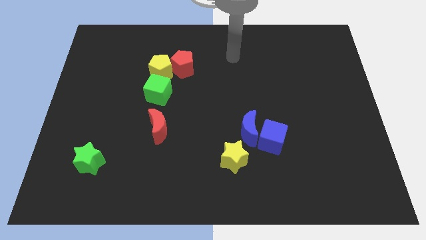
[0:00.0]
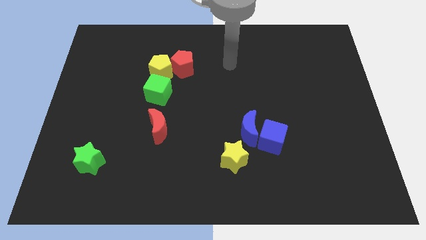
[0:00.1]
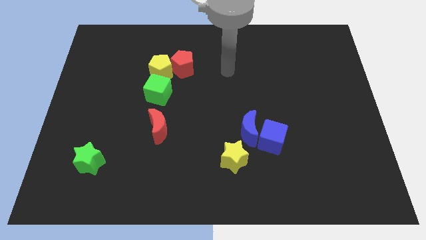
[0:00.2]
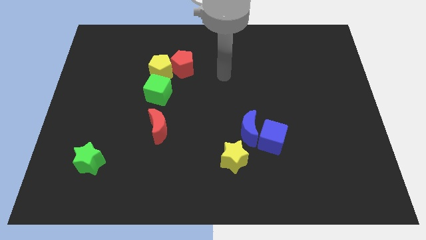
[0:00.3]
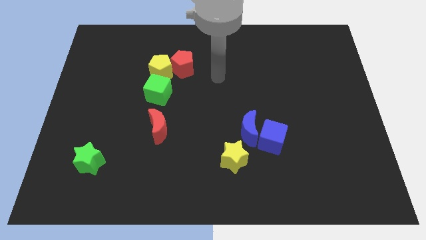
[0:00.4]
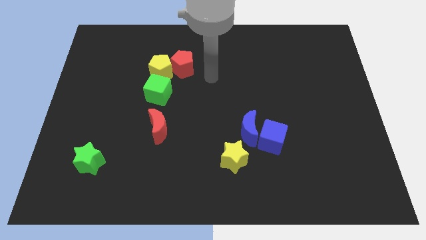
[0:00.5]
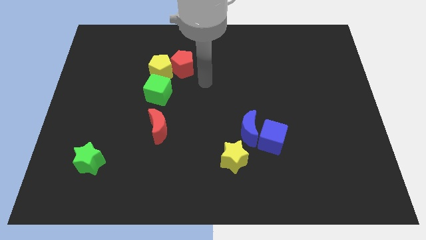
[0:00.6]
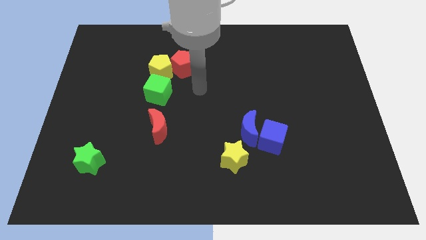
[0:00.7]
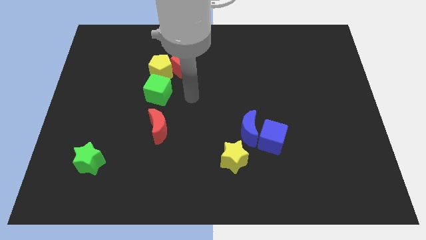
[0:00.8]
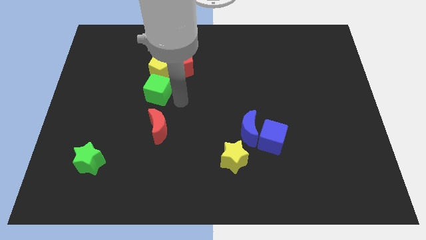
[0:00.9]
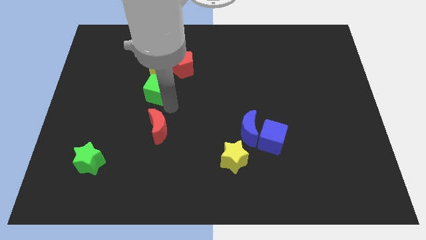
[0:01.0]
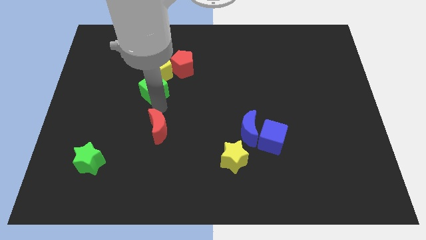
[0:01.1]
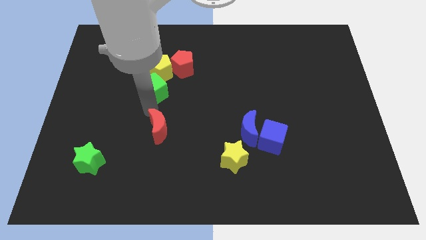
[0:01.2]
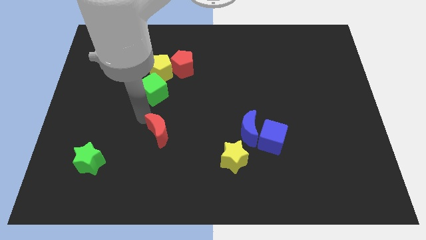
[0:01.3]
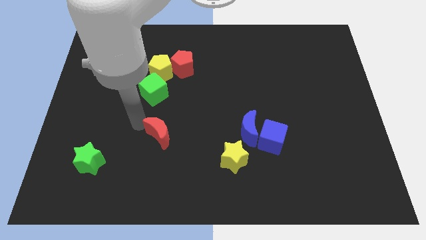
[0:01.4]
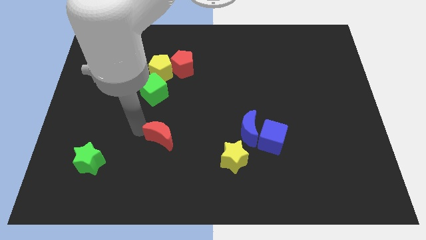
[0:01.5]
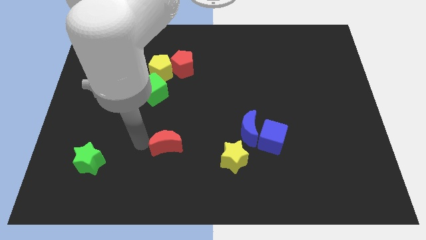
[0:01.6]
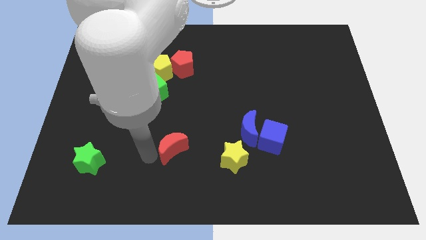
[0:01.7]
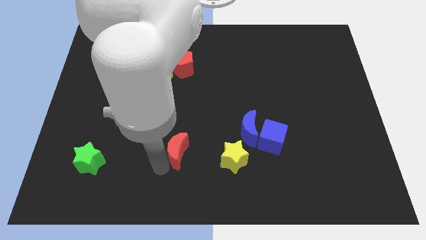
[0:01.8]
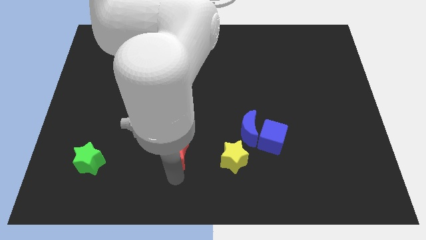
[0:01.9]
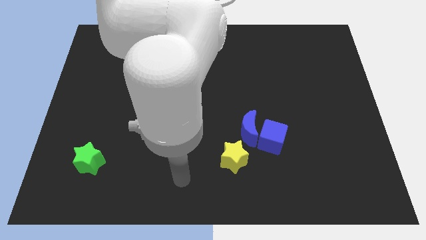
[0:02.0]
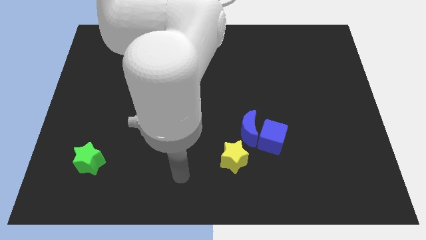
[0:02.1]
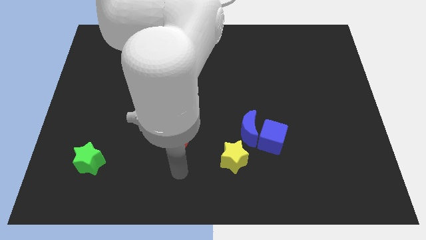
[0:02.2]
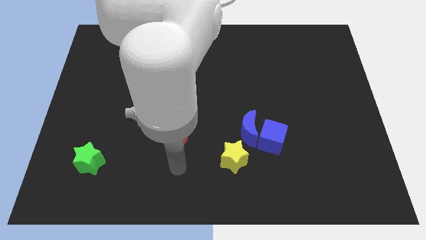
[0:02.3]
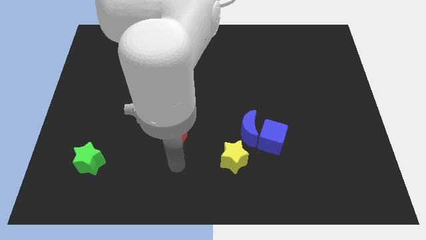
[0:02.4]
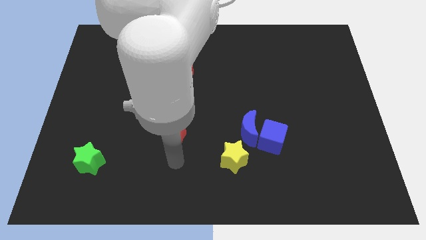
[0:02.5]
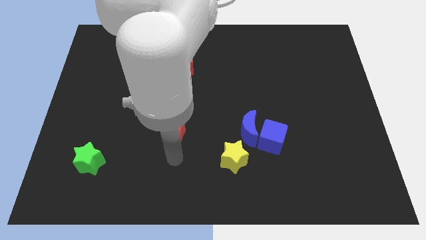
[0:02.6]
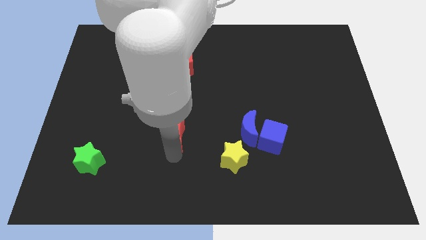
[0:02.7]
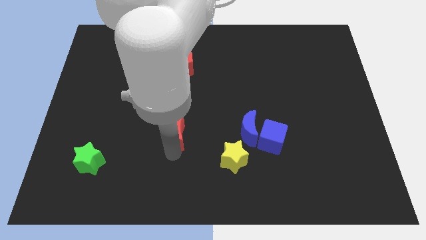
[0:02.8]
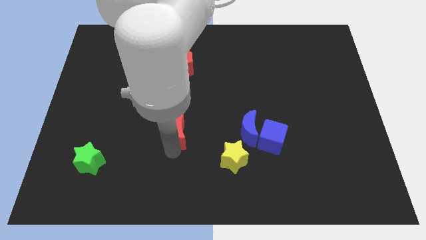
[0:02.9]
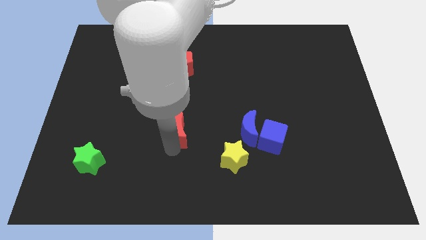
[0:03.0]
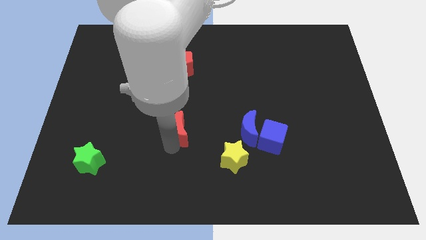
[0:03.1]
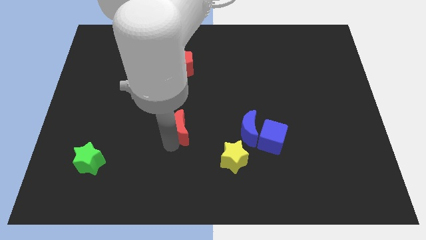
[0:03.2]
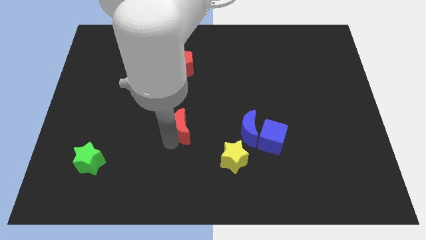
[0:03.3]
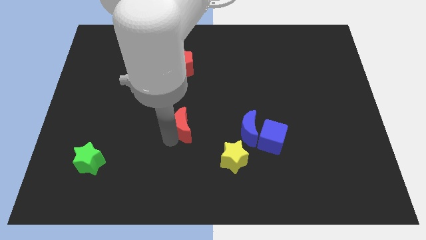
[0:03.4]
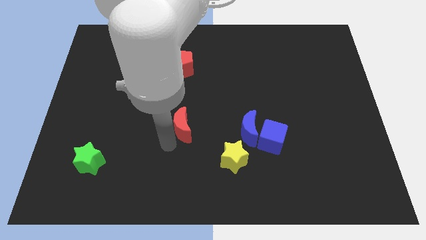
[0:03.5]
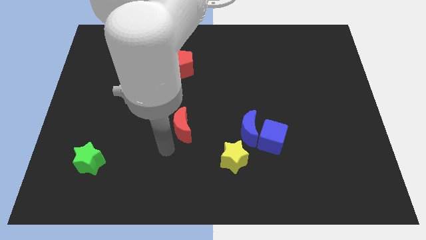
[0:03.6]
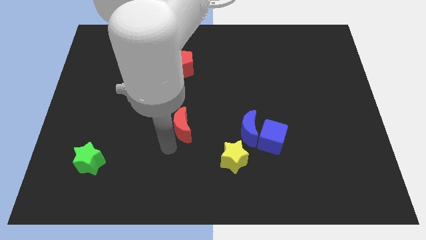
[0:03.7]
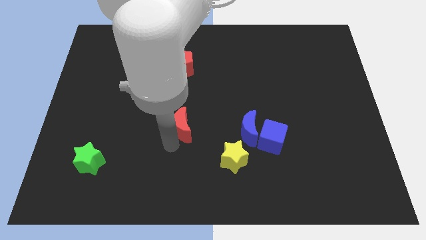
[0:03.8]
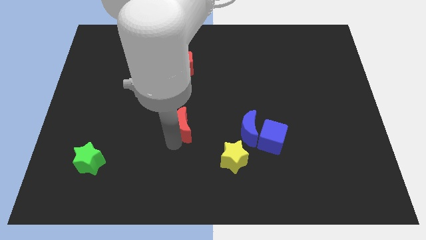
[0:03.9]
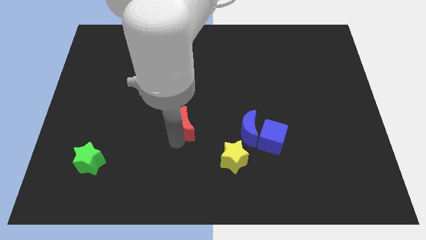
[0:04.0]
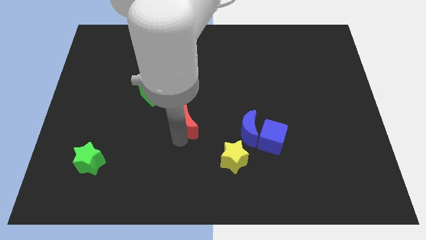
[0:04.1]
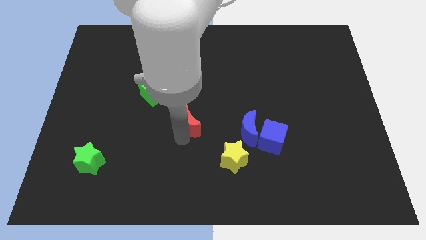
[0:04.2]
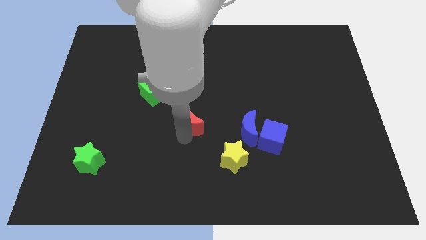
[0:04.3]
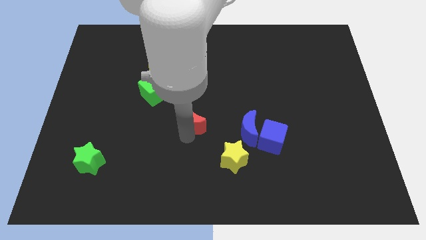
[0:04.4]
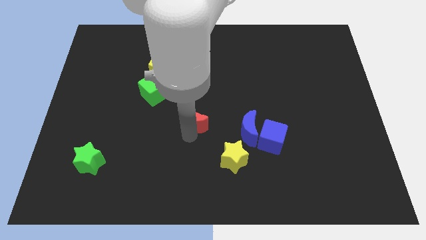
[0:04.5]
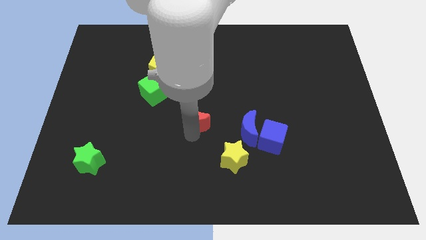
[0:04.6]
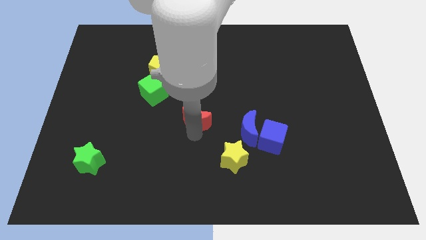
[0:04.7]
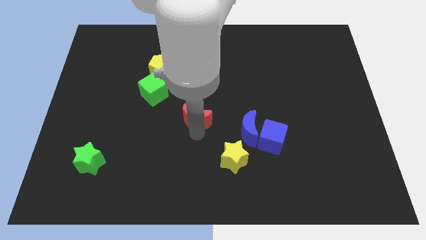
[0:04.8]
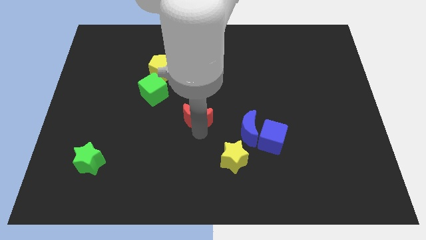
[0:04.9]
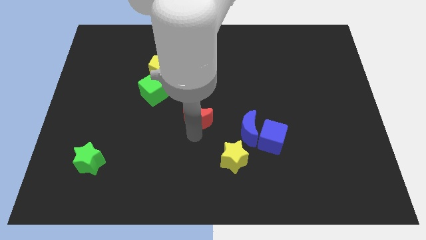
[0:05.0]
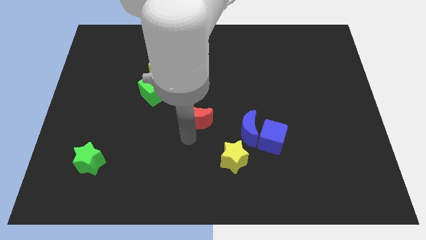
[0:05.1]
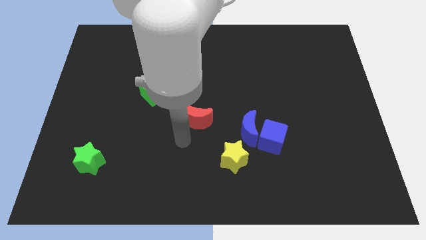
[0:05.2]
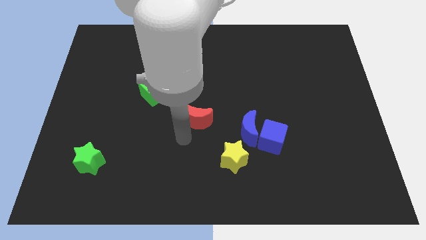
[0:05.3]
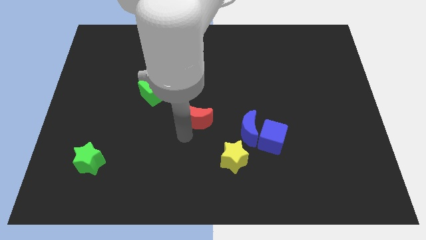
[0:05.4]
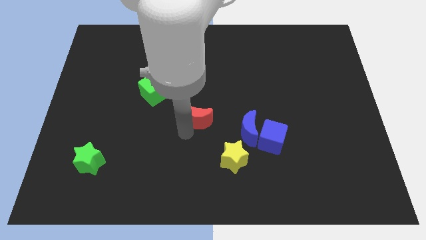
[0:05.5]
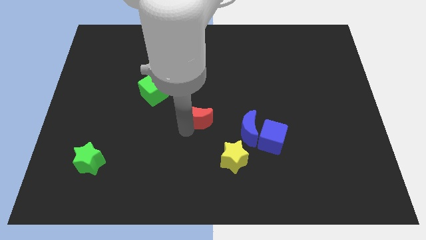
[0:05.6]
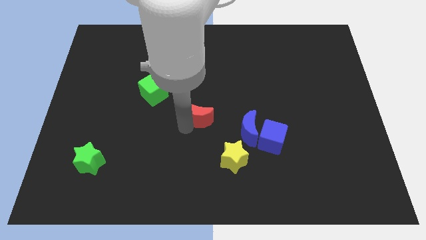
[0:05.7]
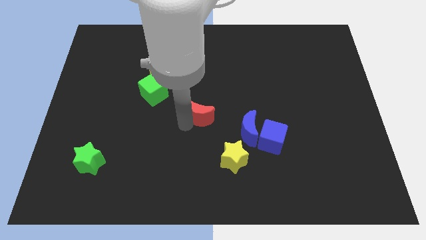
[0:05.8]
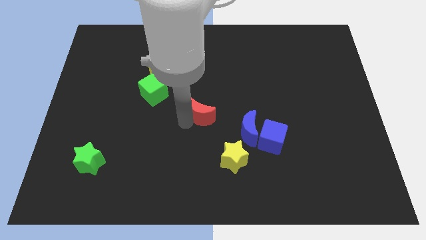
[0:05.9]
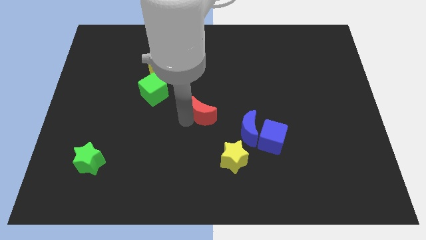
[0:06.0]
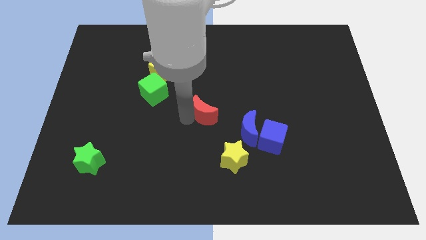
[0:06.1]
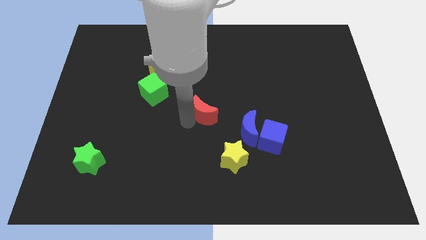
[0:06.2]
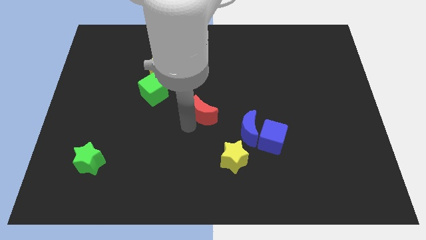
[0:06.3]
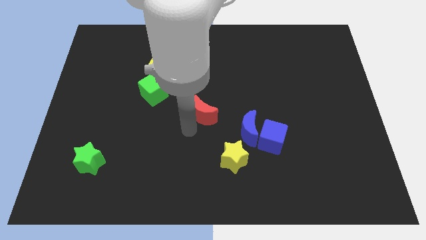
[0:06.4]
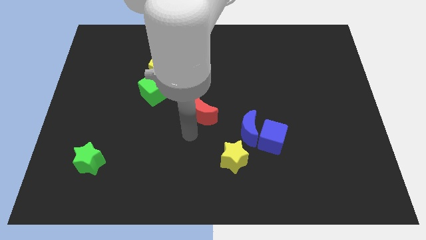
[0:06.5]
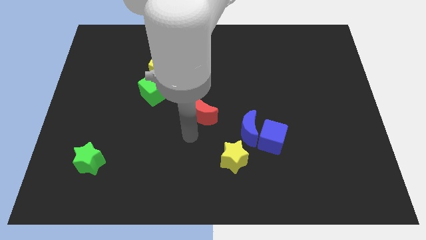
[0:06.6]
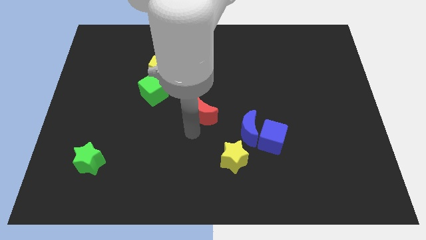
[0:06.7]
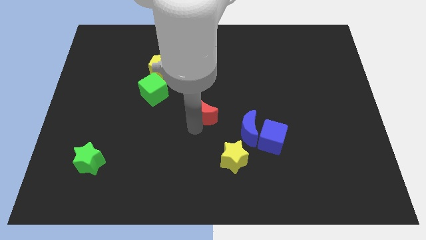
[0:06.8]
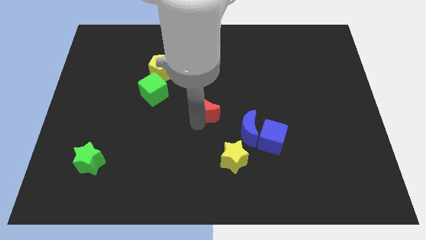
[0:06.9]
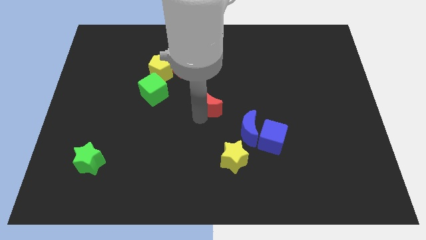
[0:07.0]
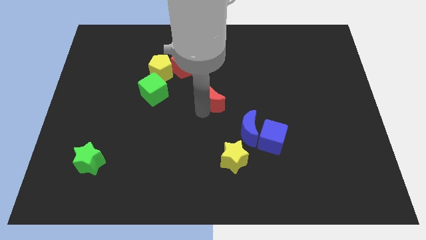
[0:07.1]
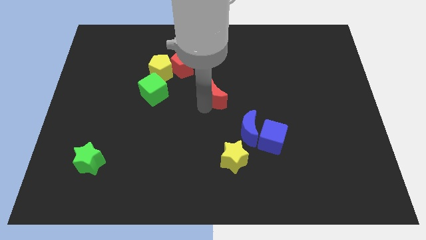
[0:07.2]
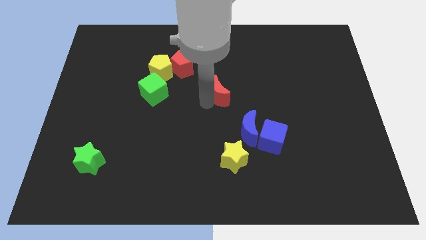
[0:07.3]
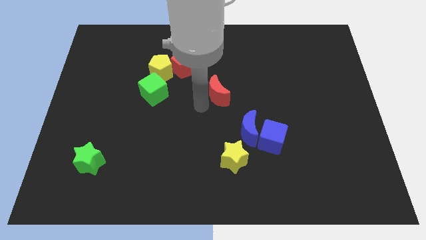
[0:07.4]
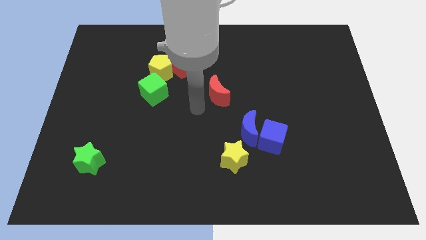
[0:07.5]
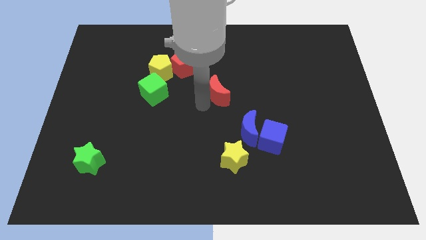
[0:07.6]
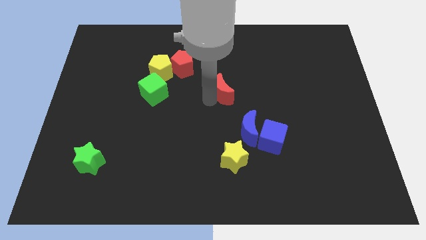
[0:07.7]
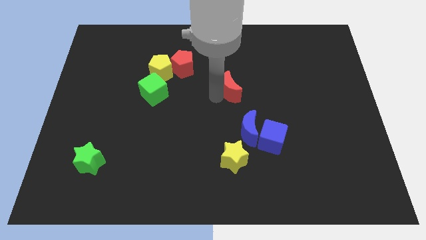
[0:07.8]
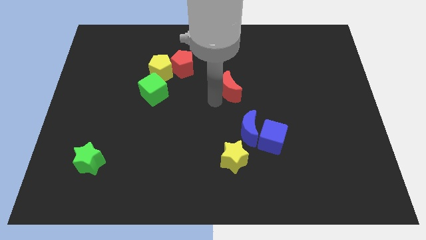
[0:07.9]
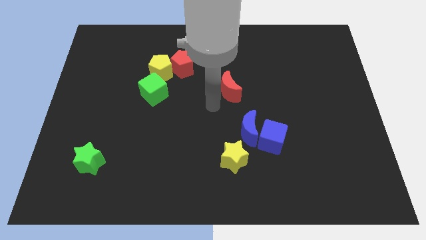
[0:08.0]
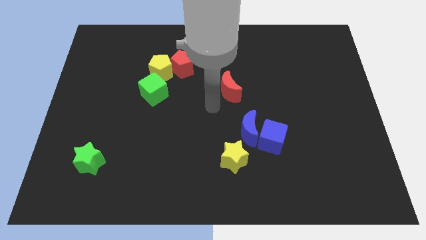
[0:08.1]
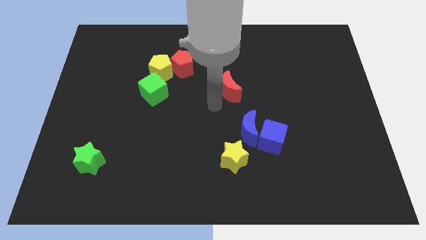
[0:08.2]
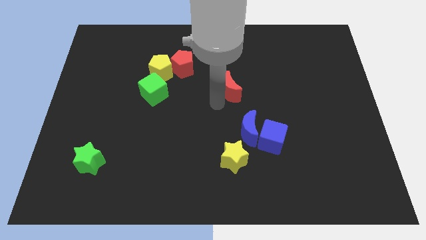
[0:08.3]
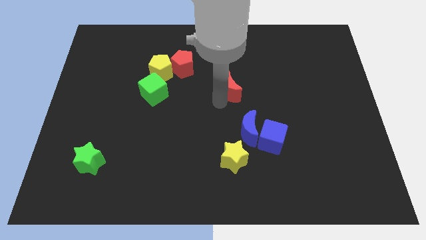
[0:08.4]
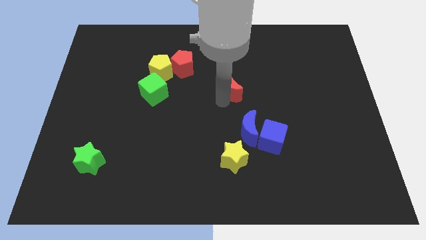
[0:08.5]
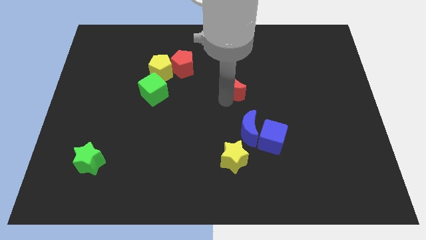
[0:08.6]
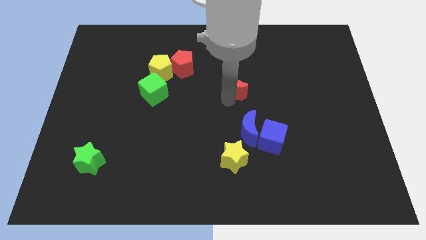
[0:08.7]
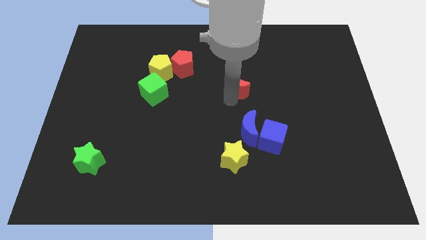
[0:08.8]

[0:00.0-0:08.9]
move the red moon diagonally up and to the right
